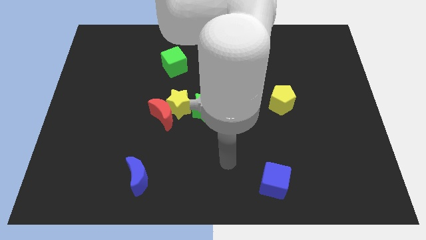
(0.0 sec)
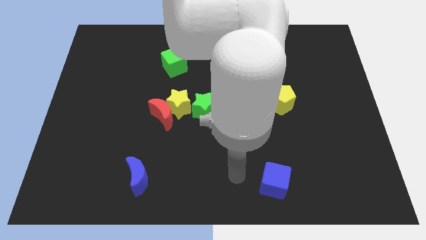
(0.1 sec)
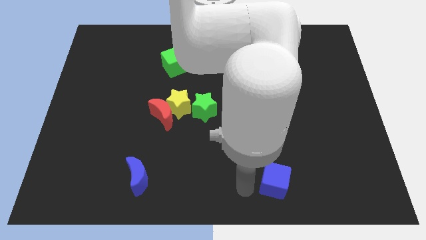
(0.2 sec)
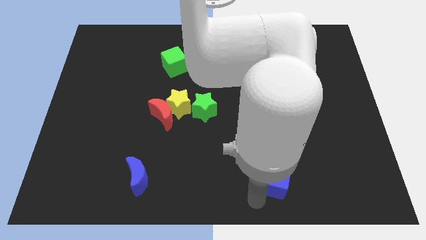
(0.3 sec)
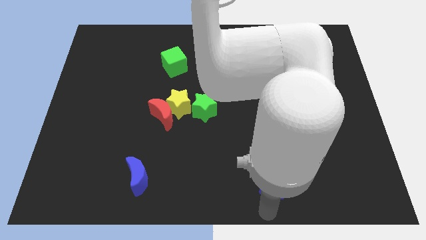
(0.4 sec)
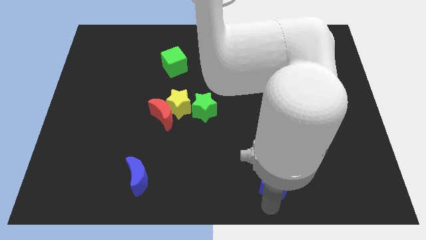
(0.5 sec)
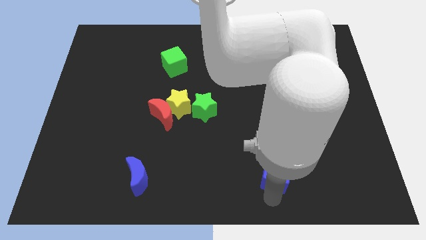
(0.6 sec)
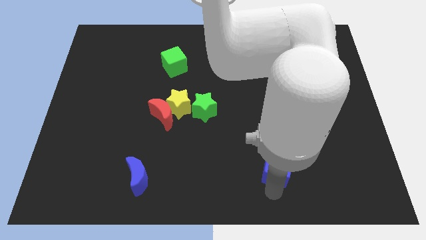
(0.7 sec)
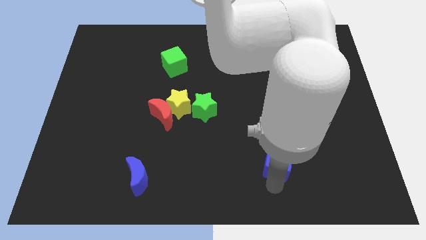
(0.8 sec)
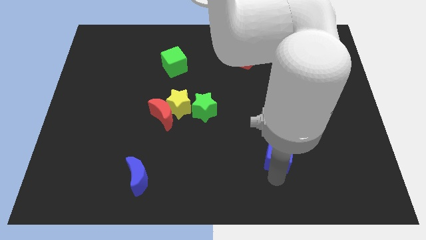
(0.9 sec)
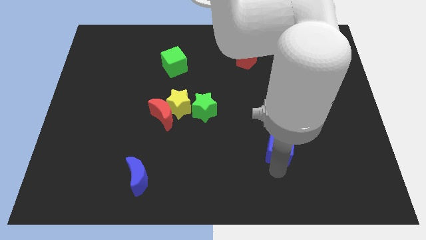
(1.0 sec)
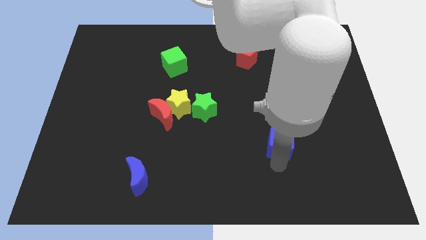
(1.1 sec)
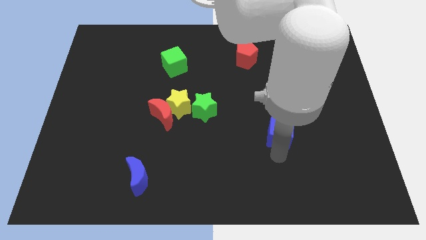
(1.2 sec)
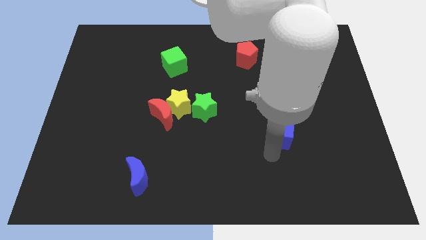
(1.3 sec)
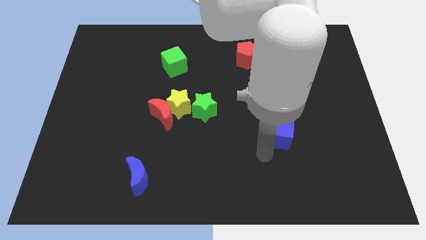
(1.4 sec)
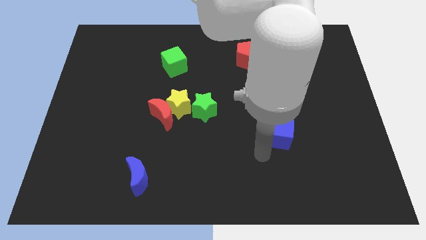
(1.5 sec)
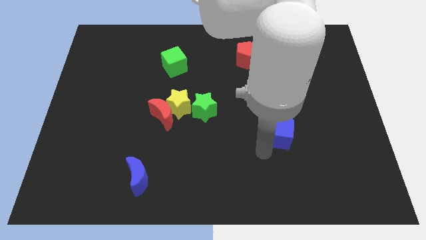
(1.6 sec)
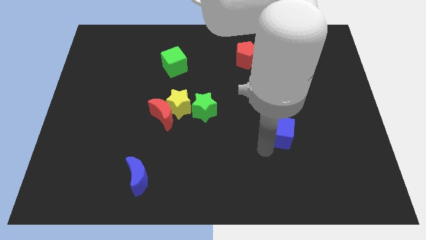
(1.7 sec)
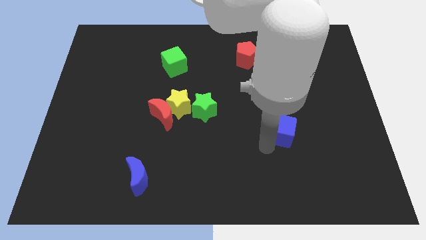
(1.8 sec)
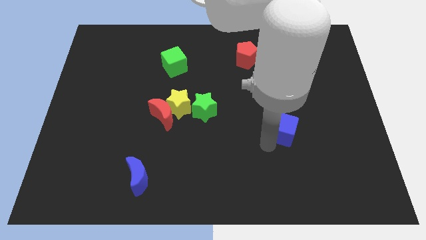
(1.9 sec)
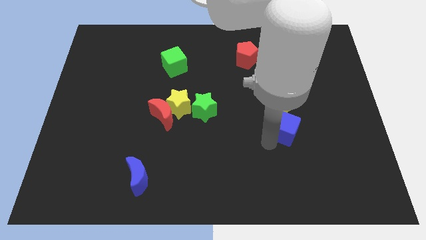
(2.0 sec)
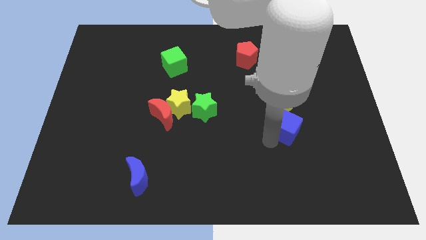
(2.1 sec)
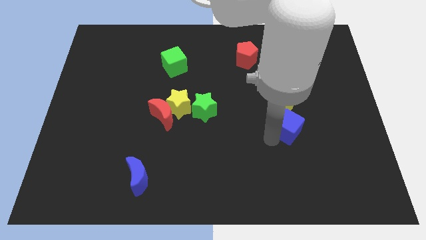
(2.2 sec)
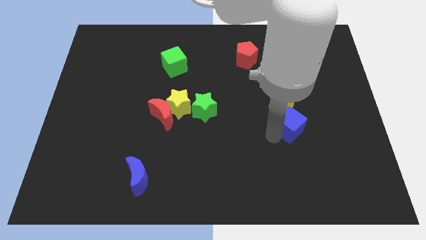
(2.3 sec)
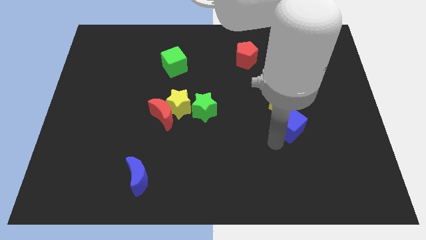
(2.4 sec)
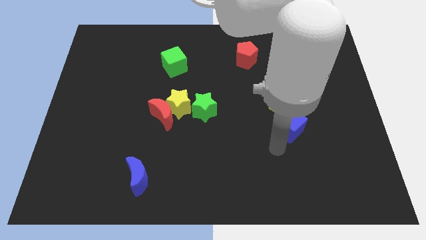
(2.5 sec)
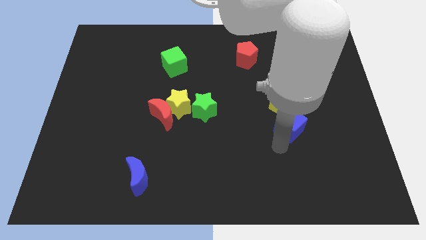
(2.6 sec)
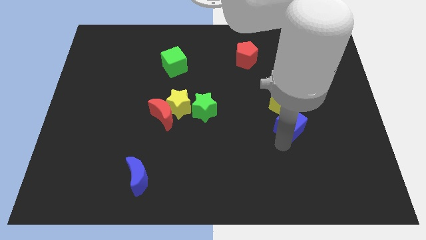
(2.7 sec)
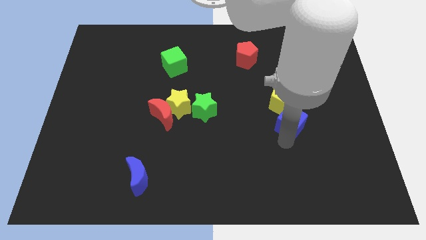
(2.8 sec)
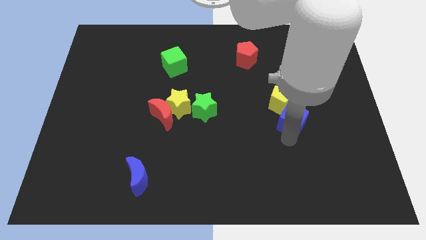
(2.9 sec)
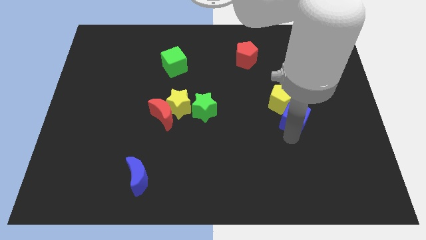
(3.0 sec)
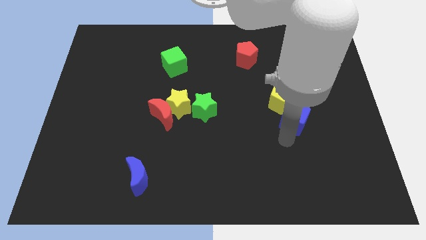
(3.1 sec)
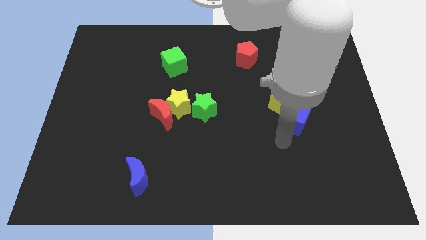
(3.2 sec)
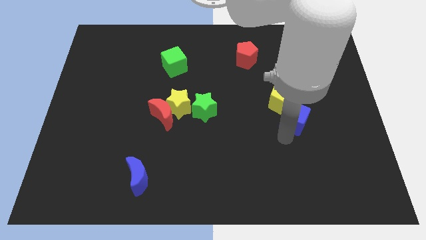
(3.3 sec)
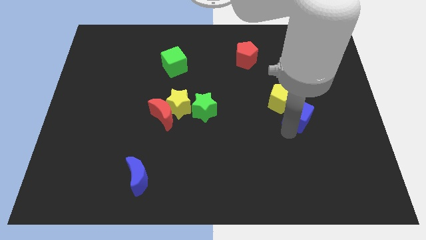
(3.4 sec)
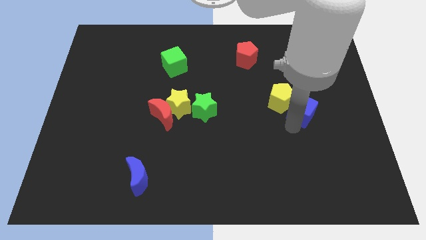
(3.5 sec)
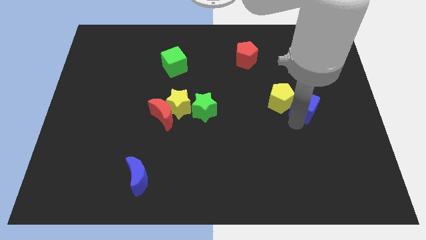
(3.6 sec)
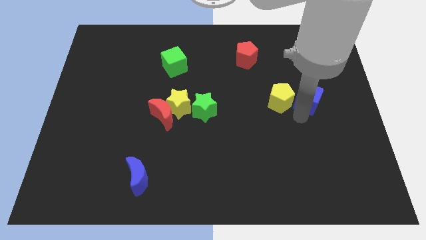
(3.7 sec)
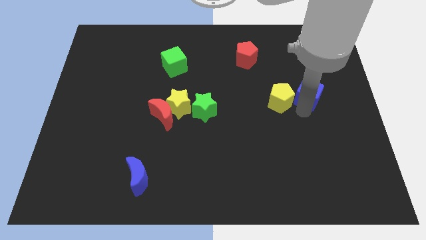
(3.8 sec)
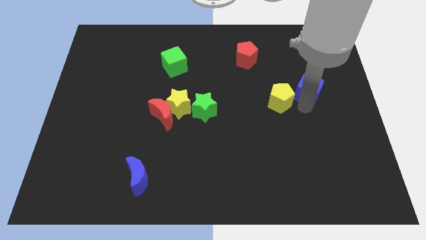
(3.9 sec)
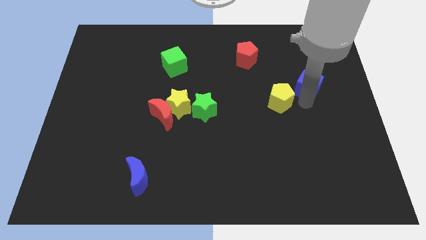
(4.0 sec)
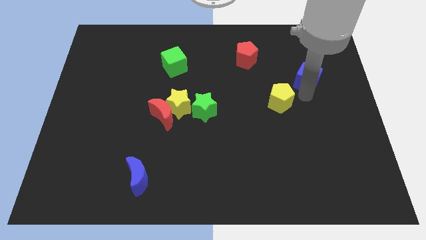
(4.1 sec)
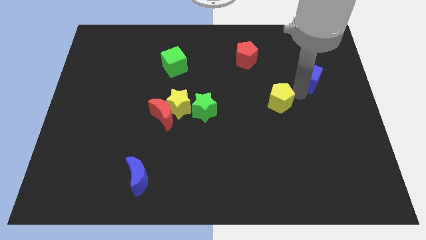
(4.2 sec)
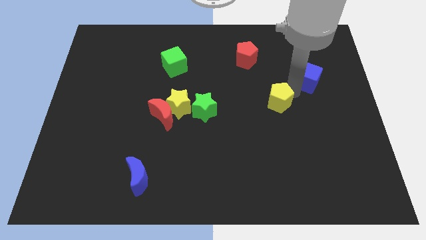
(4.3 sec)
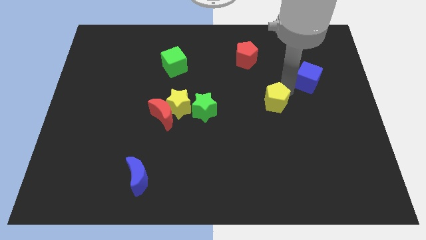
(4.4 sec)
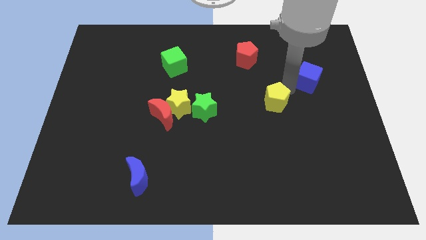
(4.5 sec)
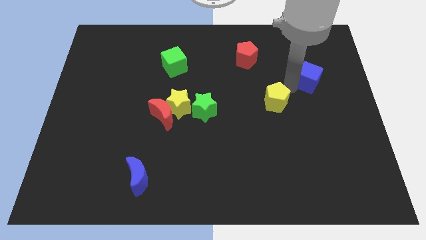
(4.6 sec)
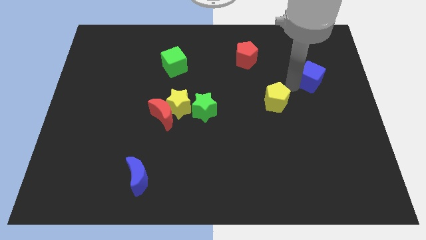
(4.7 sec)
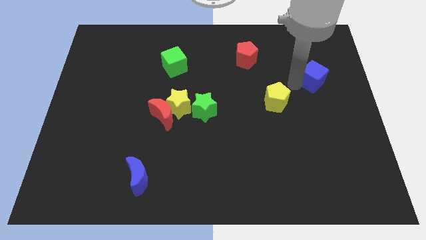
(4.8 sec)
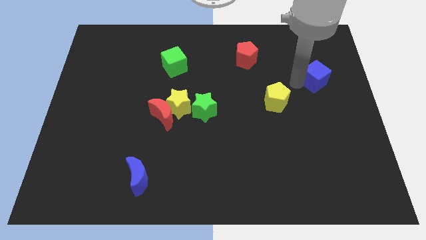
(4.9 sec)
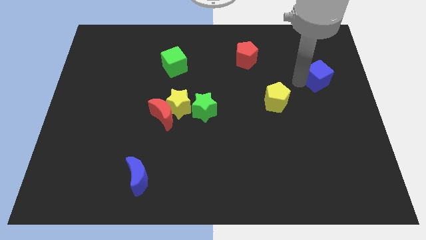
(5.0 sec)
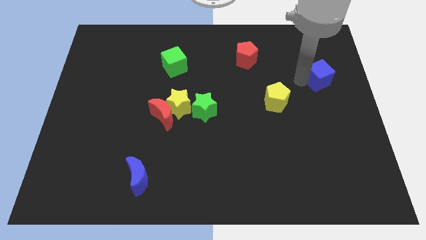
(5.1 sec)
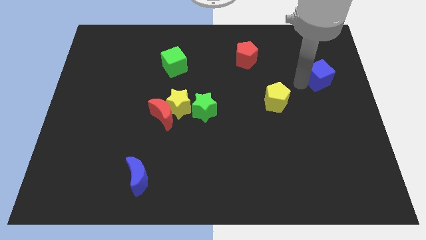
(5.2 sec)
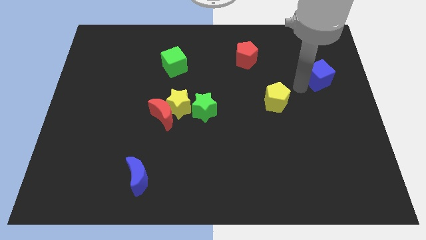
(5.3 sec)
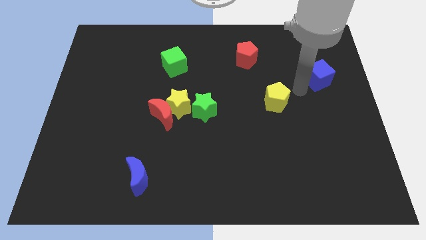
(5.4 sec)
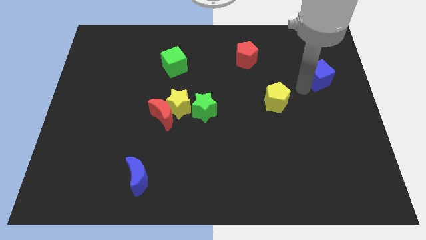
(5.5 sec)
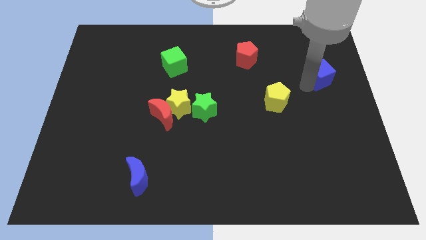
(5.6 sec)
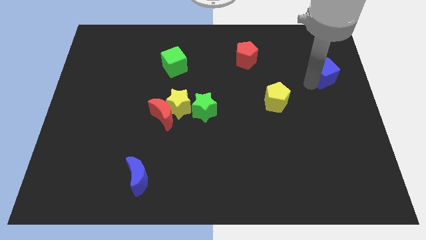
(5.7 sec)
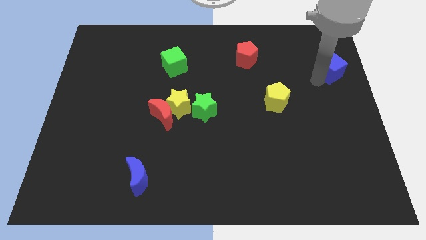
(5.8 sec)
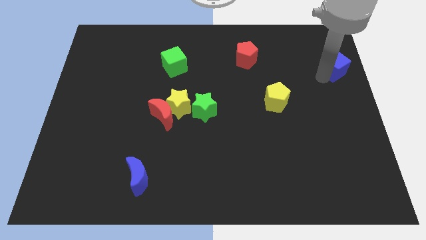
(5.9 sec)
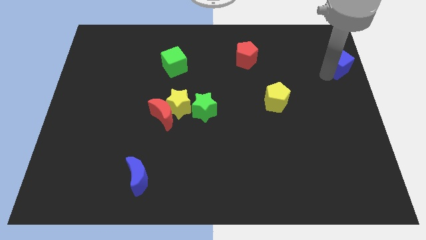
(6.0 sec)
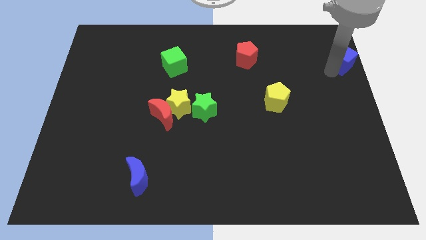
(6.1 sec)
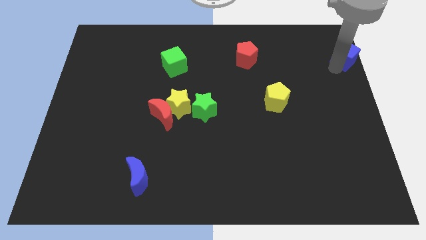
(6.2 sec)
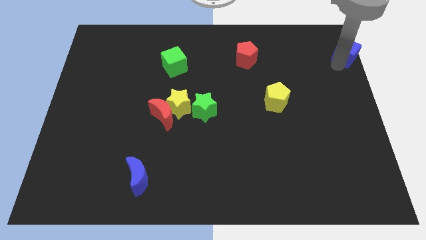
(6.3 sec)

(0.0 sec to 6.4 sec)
push the blue cube to the top right corner
